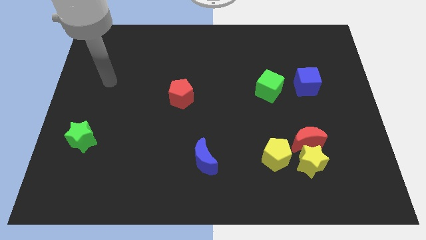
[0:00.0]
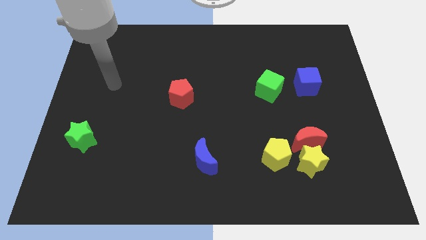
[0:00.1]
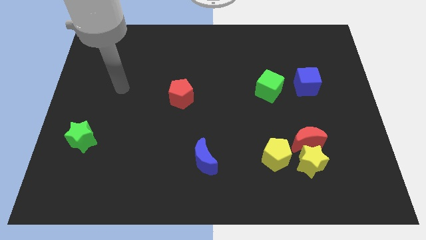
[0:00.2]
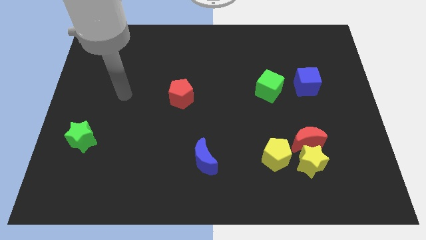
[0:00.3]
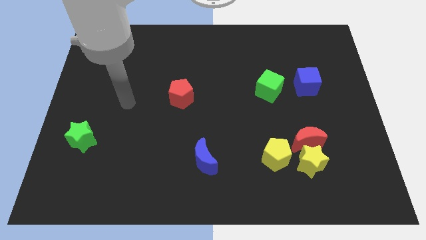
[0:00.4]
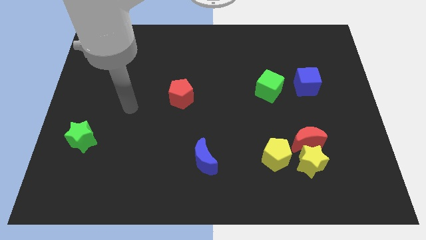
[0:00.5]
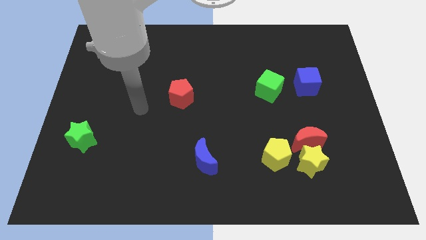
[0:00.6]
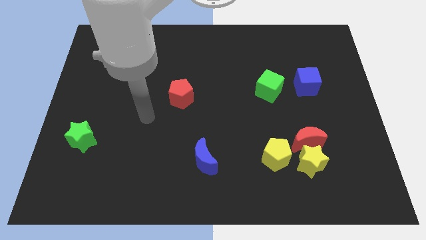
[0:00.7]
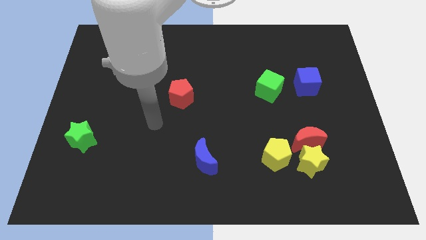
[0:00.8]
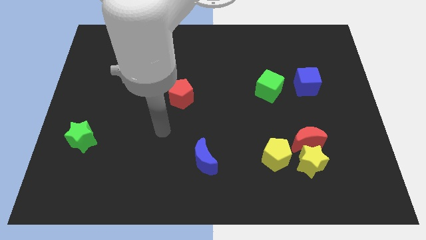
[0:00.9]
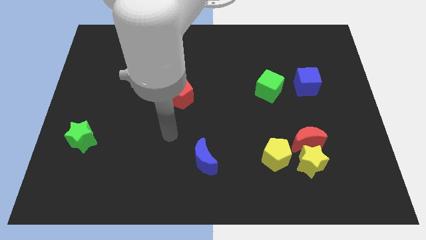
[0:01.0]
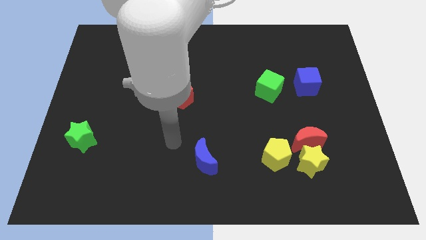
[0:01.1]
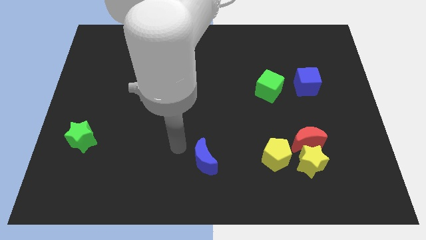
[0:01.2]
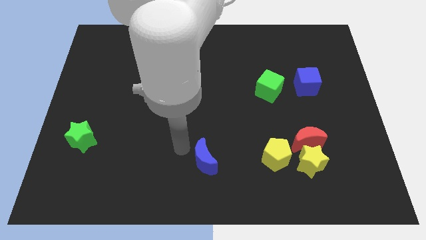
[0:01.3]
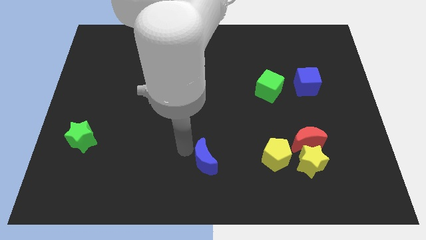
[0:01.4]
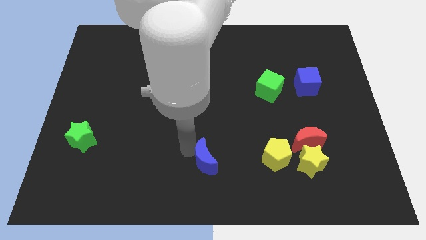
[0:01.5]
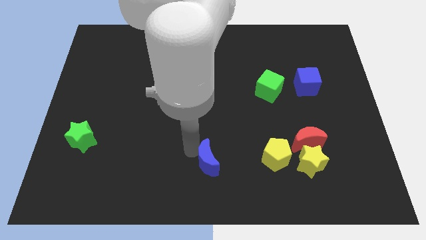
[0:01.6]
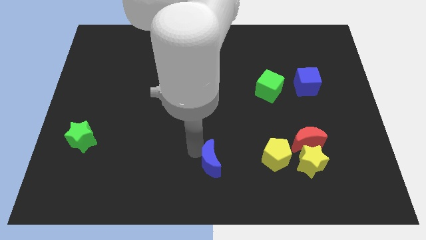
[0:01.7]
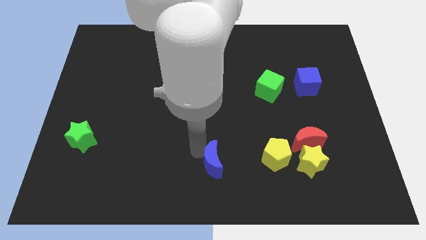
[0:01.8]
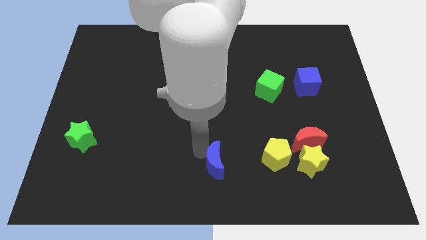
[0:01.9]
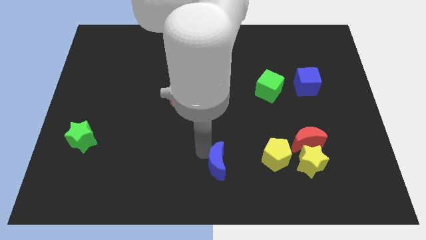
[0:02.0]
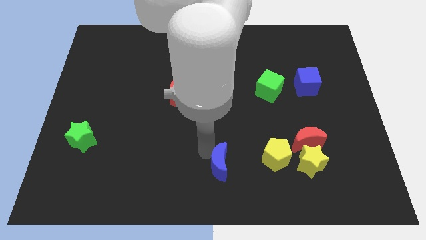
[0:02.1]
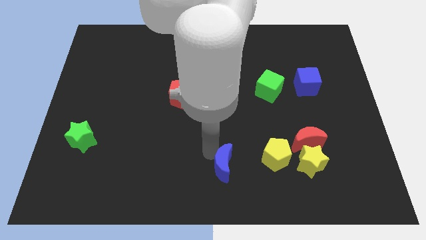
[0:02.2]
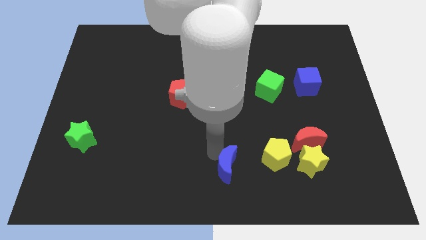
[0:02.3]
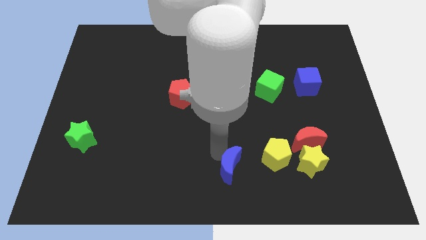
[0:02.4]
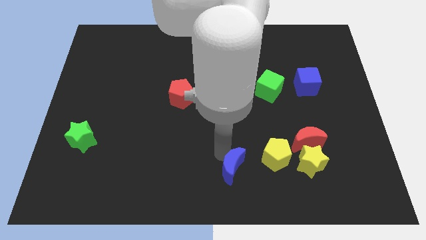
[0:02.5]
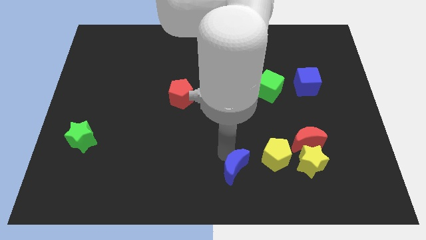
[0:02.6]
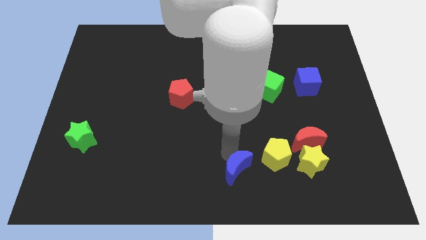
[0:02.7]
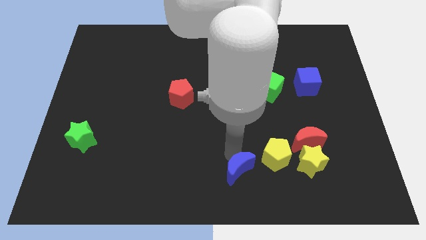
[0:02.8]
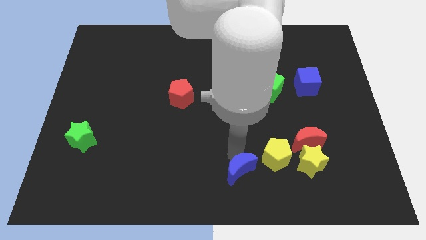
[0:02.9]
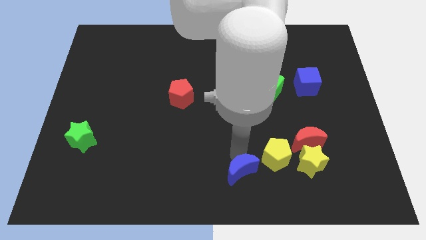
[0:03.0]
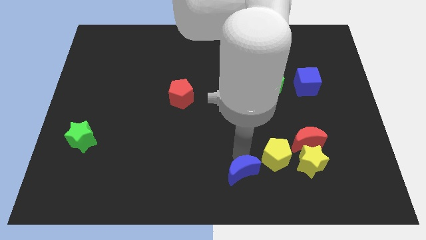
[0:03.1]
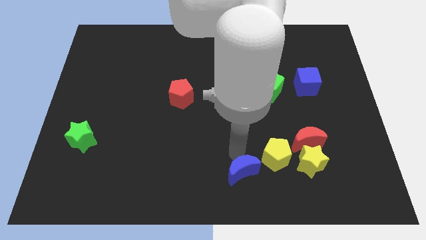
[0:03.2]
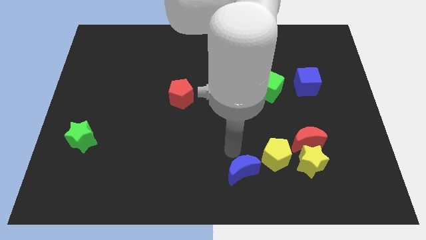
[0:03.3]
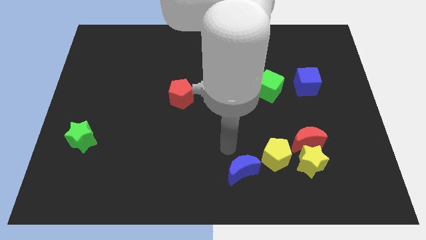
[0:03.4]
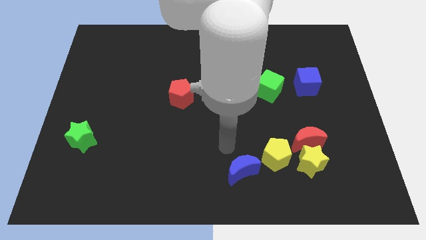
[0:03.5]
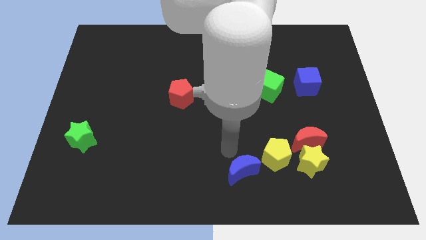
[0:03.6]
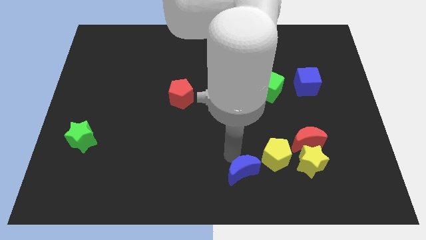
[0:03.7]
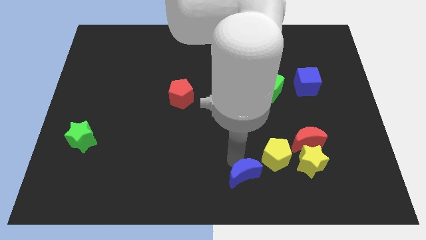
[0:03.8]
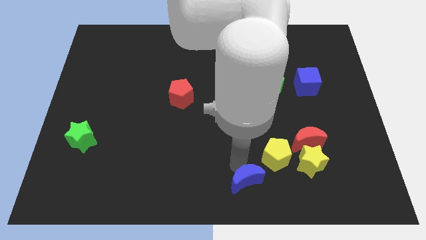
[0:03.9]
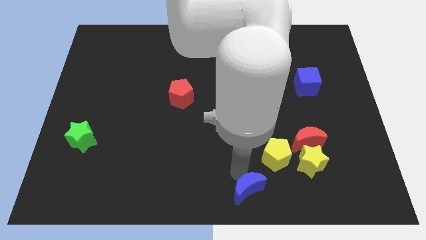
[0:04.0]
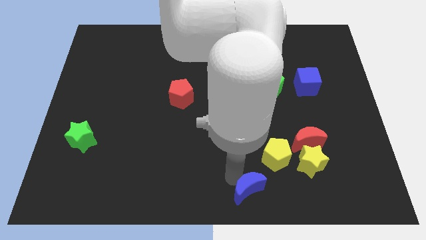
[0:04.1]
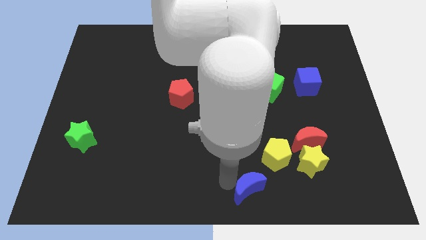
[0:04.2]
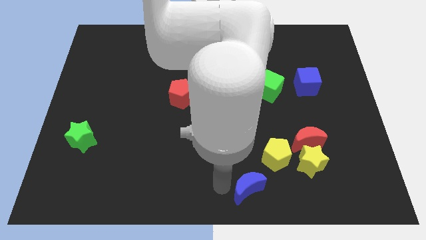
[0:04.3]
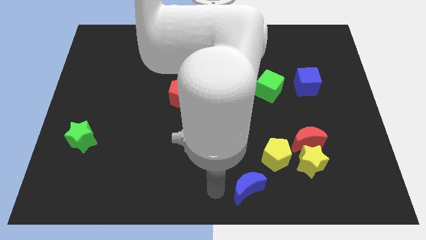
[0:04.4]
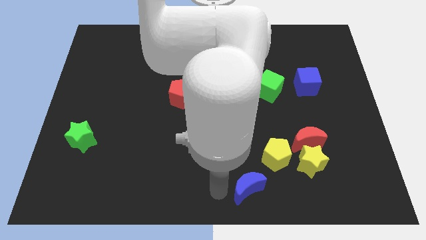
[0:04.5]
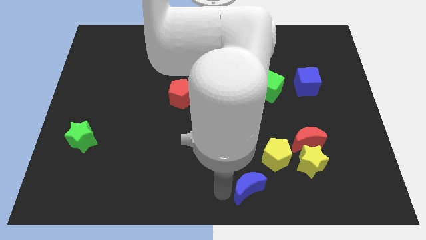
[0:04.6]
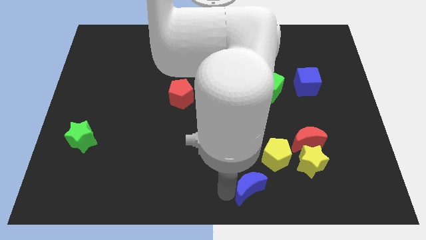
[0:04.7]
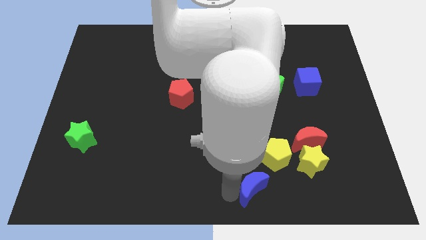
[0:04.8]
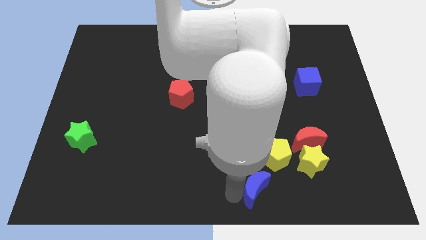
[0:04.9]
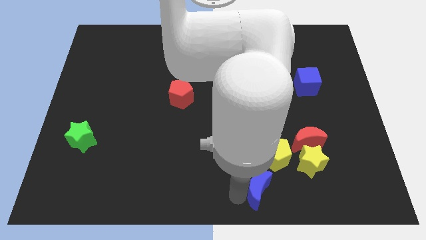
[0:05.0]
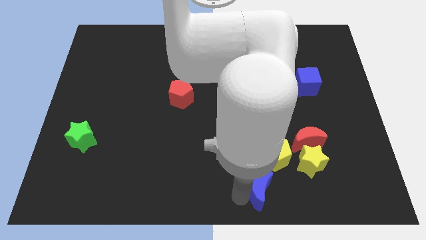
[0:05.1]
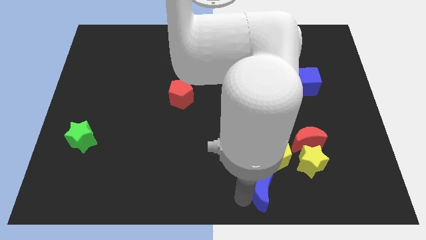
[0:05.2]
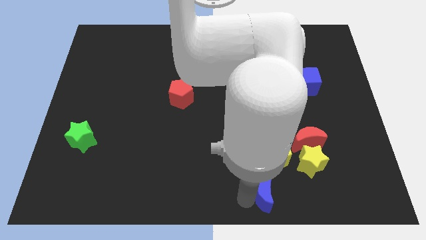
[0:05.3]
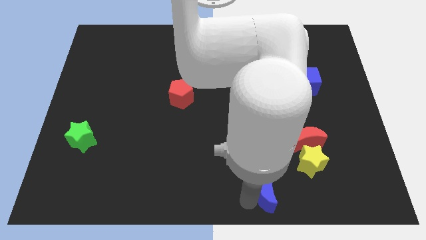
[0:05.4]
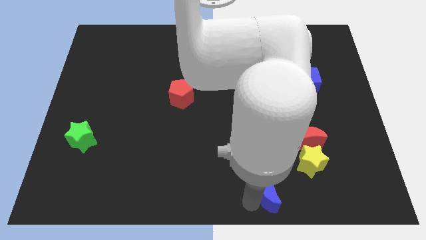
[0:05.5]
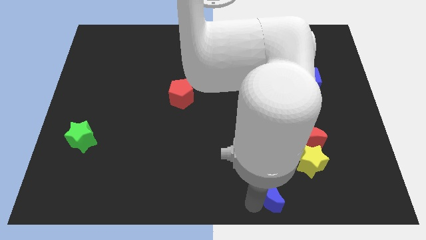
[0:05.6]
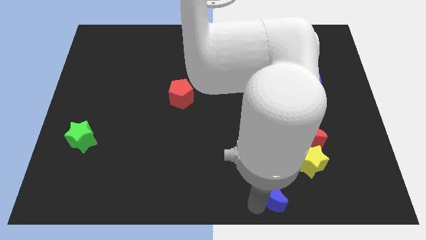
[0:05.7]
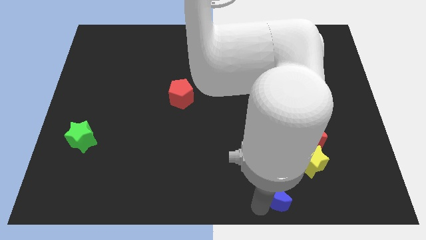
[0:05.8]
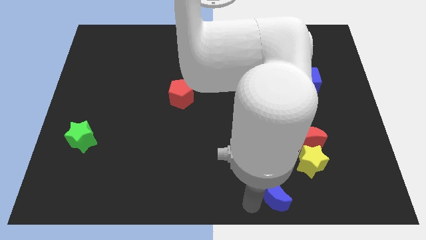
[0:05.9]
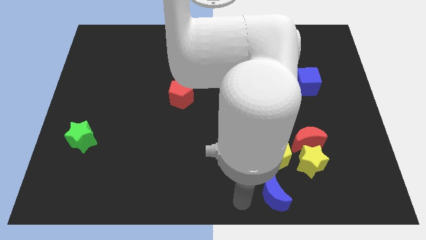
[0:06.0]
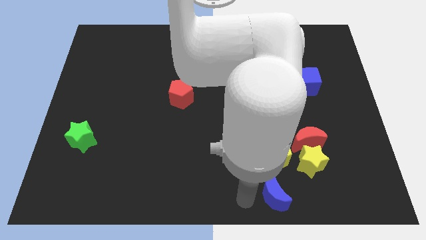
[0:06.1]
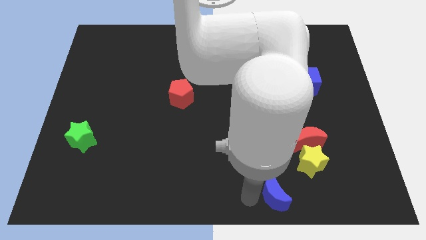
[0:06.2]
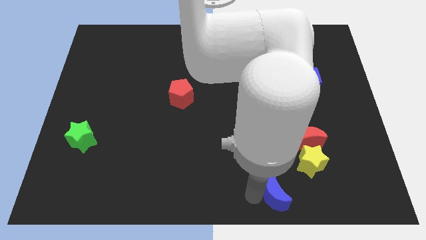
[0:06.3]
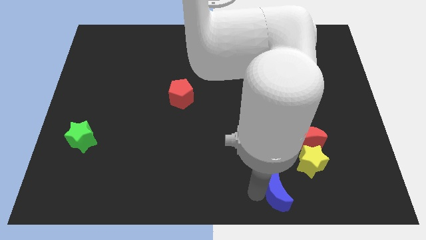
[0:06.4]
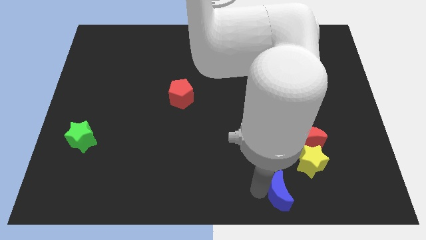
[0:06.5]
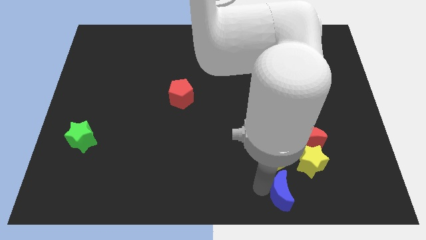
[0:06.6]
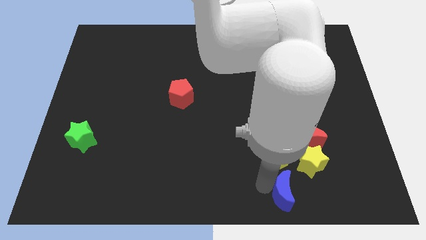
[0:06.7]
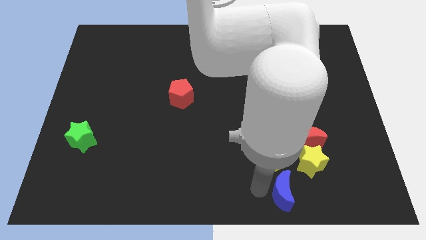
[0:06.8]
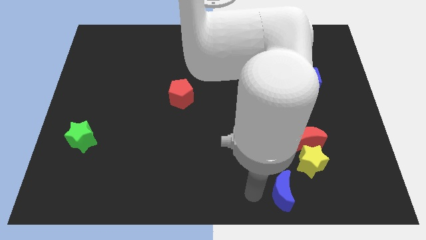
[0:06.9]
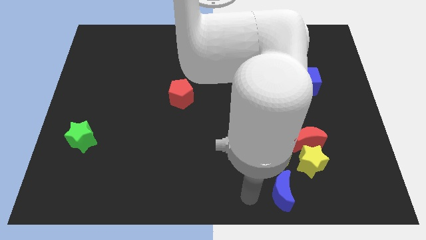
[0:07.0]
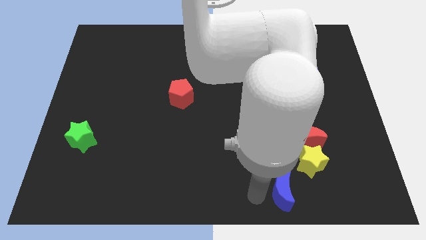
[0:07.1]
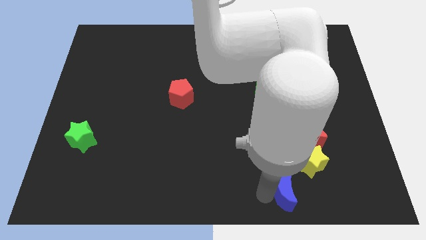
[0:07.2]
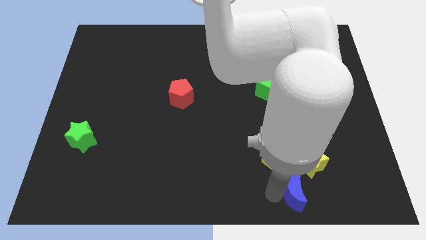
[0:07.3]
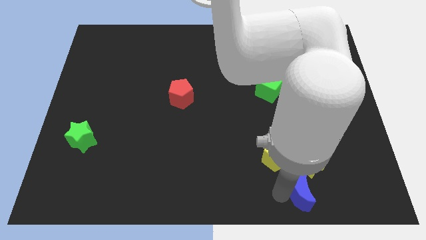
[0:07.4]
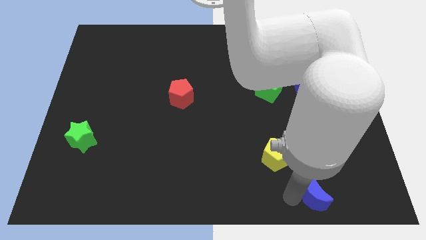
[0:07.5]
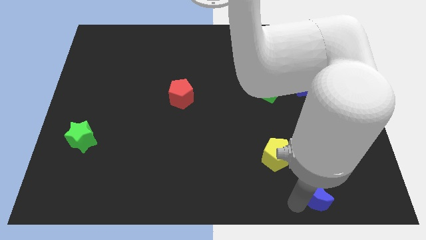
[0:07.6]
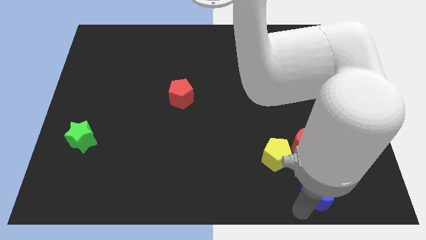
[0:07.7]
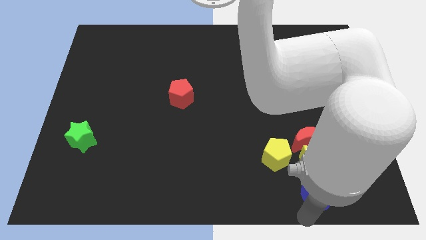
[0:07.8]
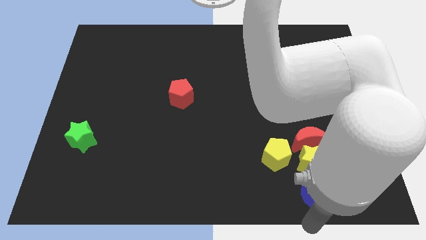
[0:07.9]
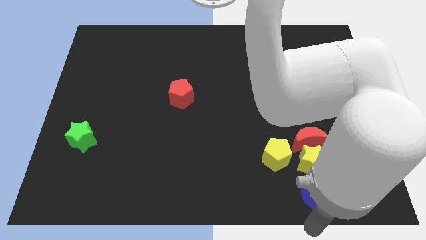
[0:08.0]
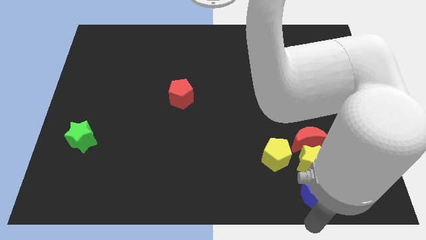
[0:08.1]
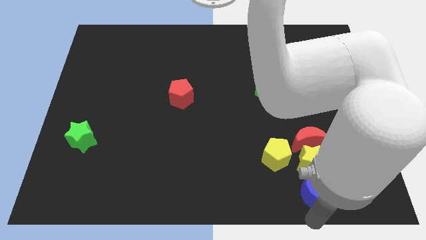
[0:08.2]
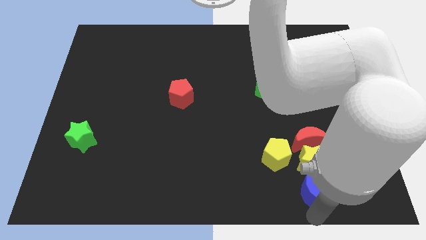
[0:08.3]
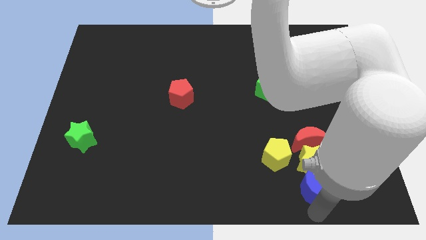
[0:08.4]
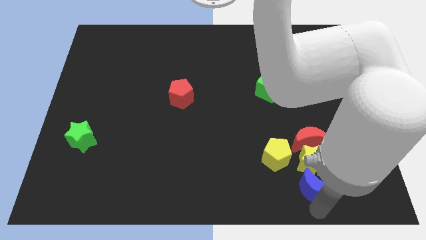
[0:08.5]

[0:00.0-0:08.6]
slide the blue moon to the yellow star
